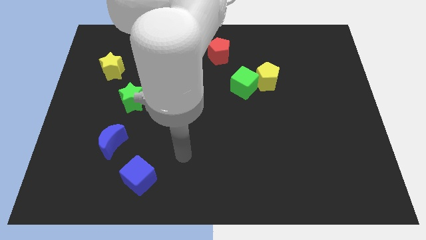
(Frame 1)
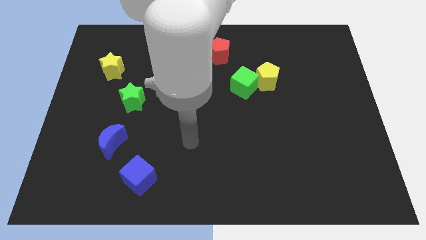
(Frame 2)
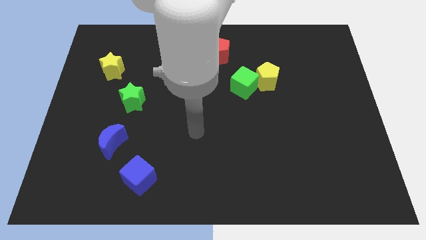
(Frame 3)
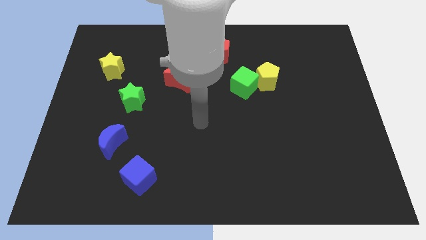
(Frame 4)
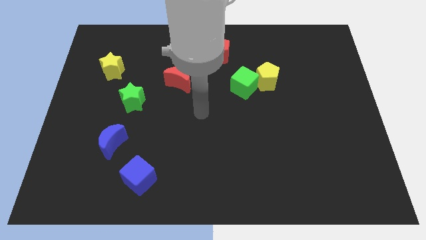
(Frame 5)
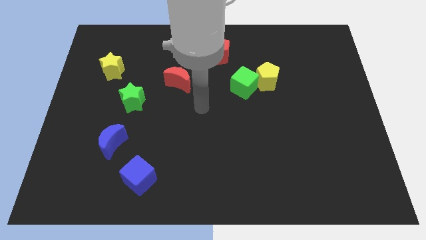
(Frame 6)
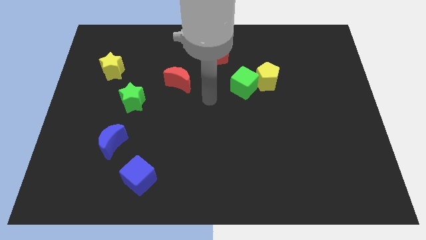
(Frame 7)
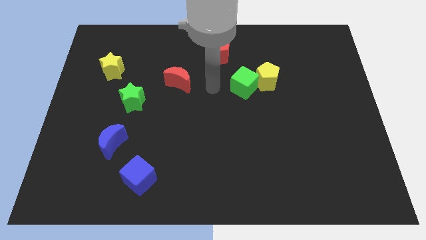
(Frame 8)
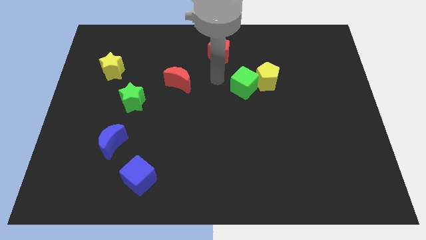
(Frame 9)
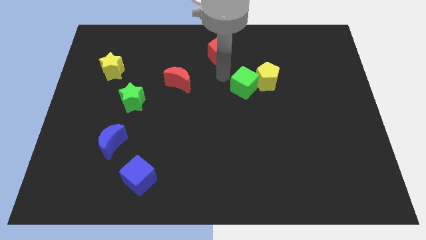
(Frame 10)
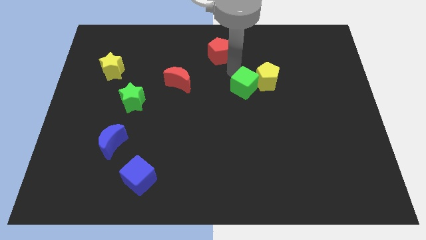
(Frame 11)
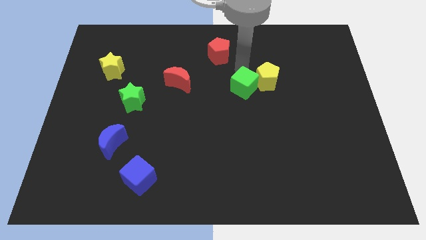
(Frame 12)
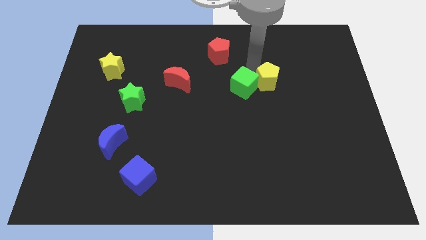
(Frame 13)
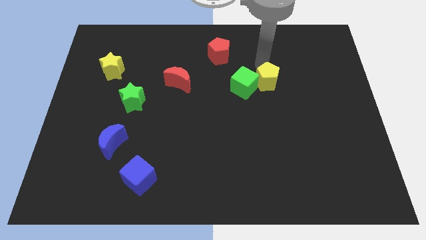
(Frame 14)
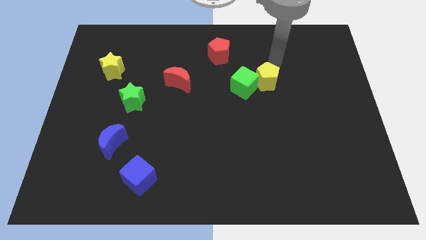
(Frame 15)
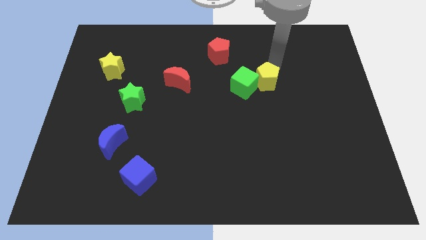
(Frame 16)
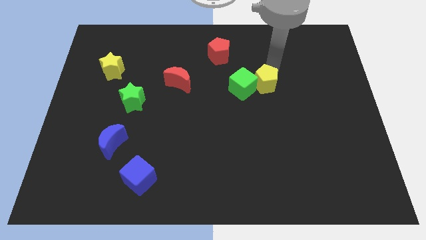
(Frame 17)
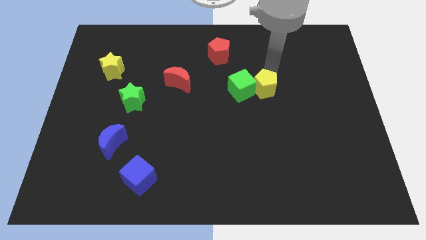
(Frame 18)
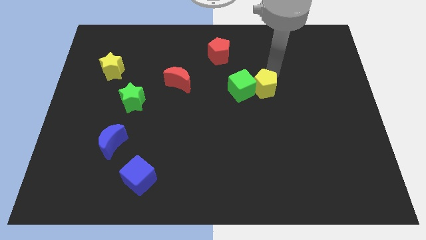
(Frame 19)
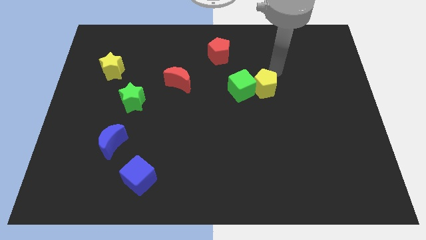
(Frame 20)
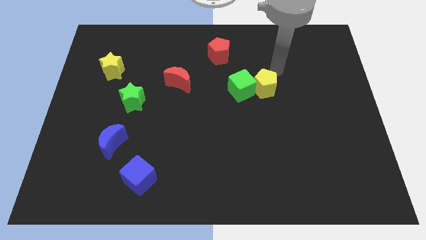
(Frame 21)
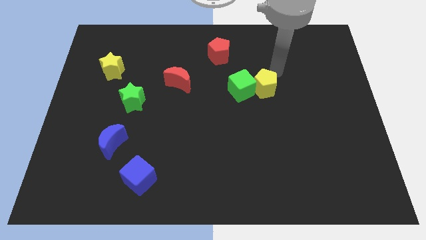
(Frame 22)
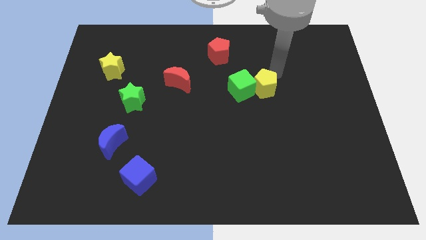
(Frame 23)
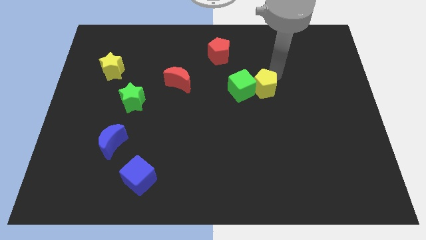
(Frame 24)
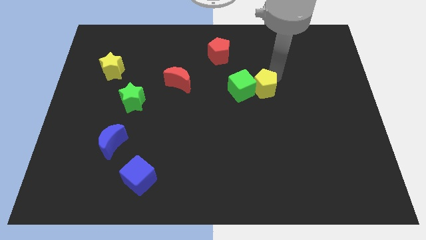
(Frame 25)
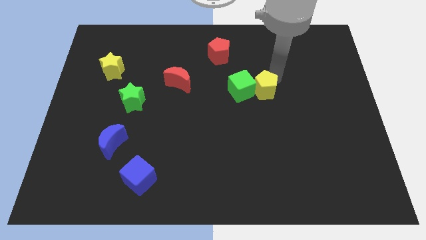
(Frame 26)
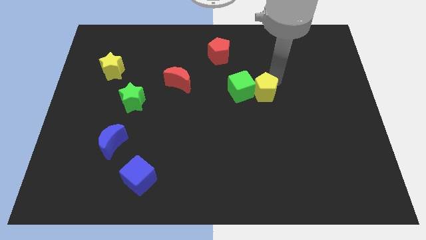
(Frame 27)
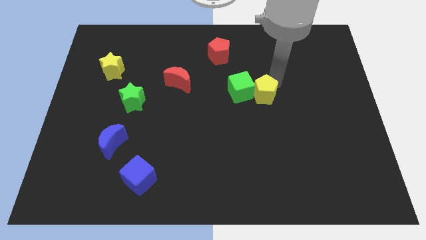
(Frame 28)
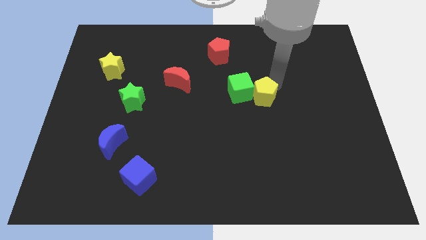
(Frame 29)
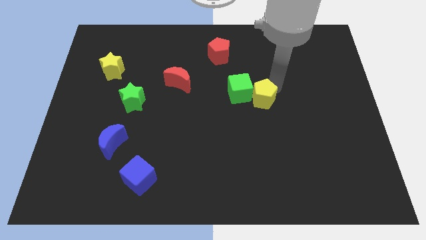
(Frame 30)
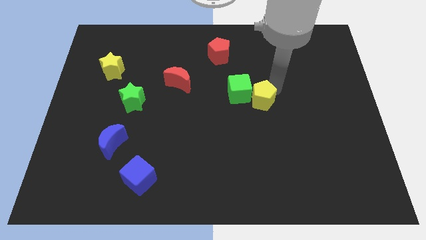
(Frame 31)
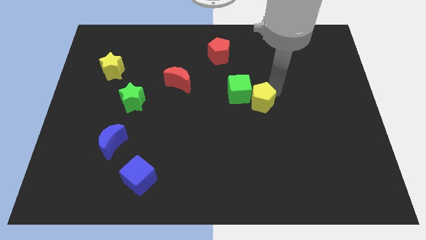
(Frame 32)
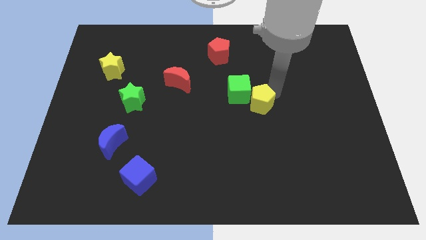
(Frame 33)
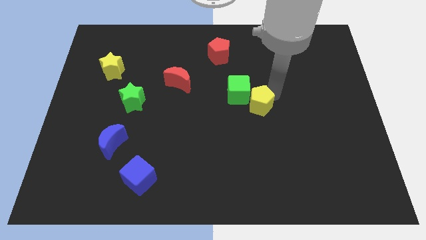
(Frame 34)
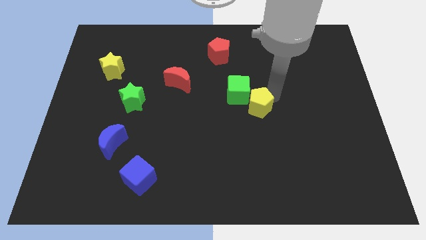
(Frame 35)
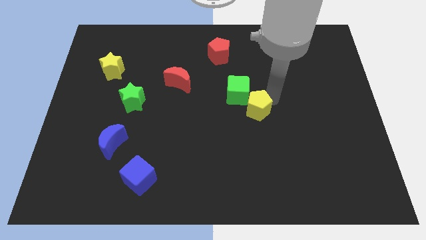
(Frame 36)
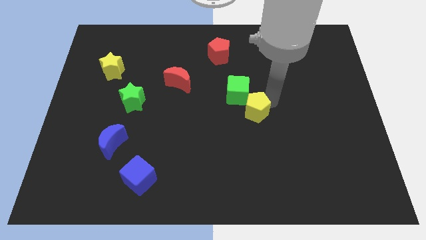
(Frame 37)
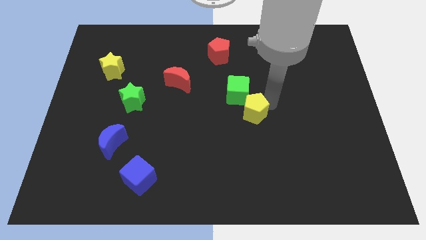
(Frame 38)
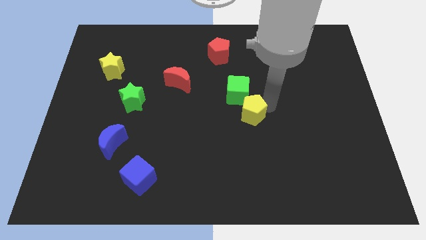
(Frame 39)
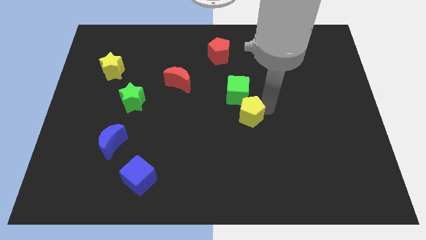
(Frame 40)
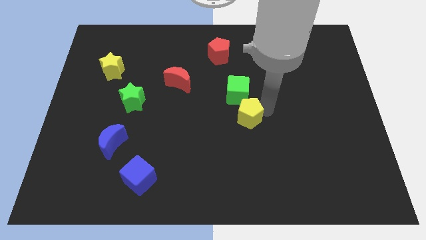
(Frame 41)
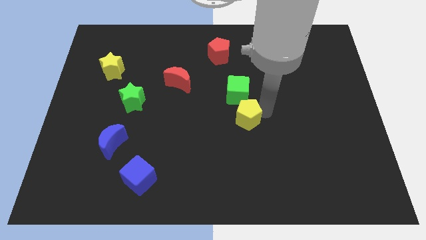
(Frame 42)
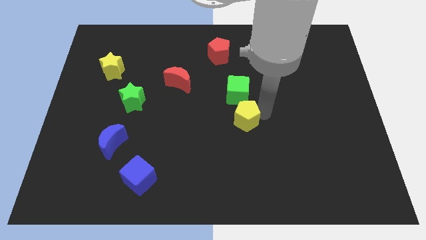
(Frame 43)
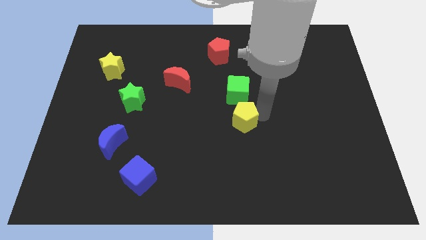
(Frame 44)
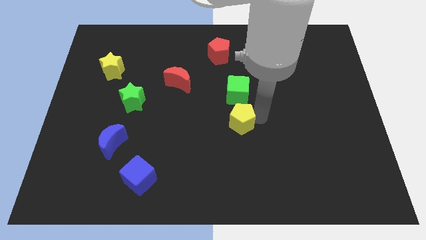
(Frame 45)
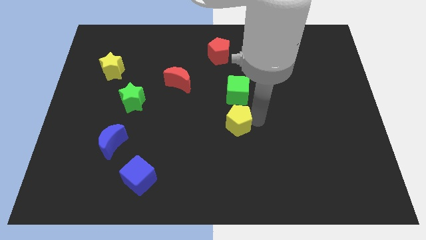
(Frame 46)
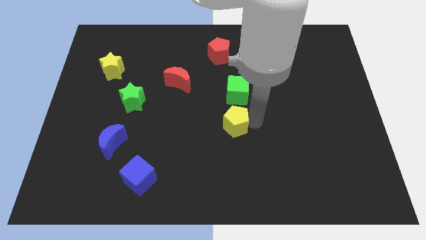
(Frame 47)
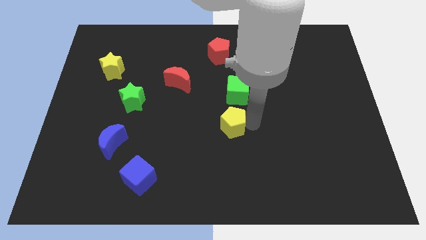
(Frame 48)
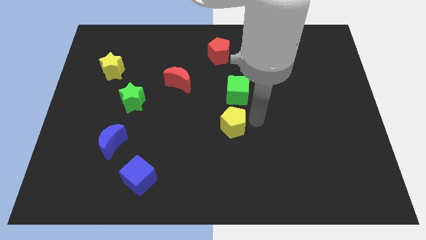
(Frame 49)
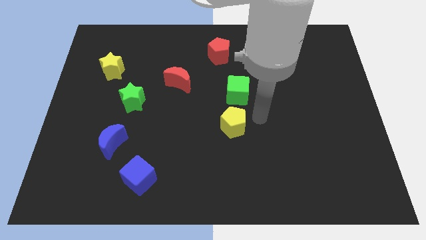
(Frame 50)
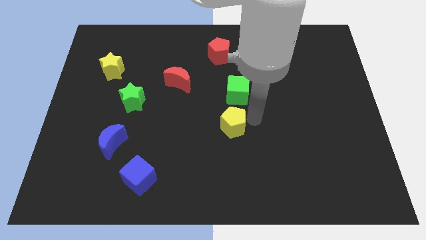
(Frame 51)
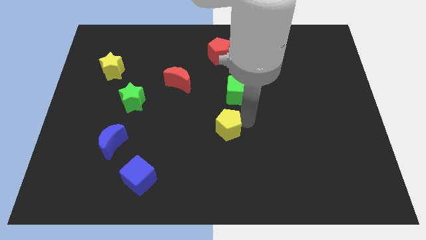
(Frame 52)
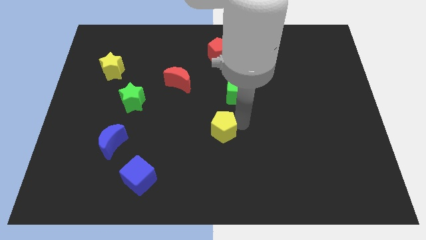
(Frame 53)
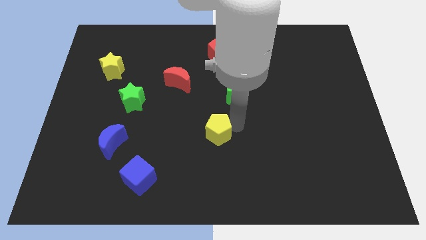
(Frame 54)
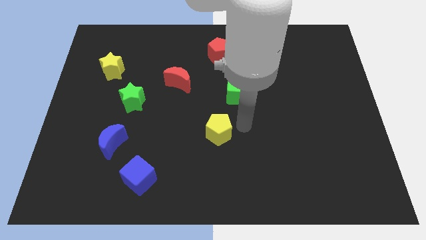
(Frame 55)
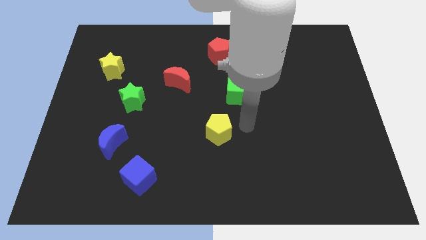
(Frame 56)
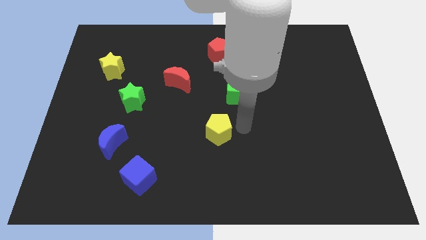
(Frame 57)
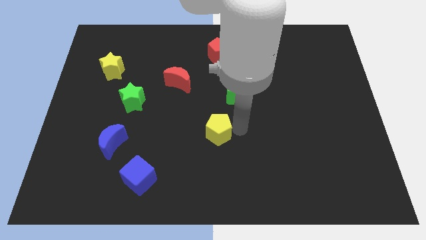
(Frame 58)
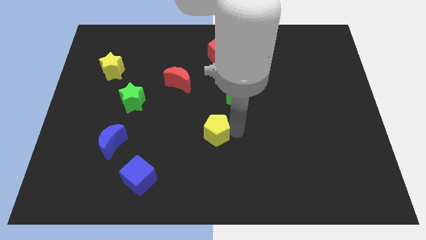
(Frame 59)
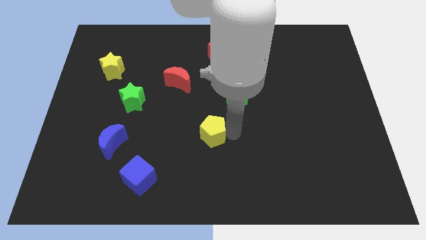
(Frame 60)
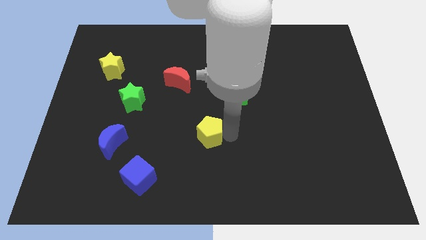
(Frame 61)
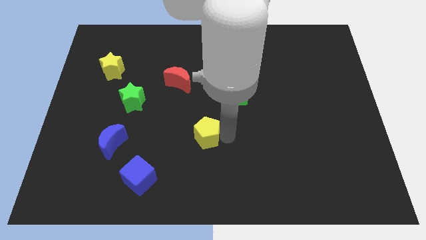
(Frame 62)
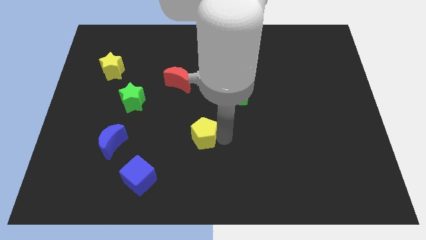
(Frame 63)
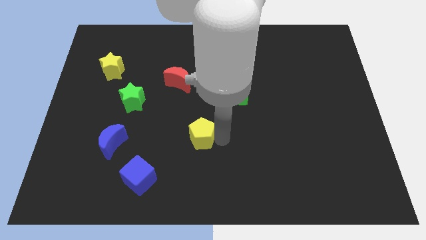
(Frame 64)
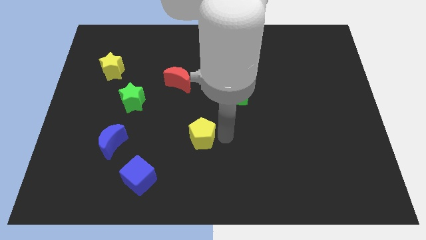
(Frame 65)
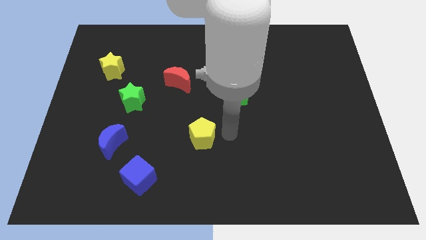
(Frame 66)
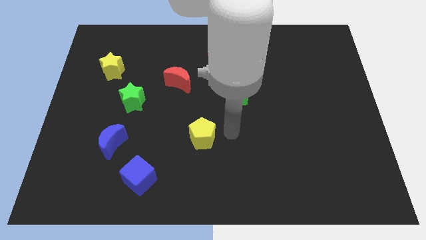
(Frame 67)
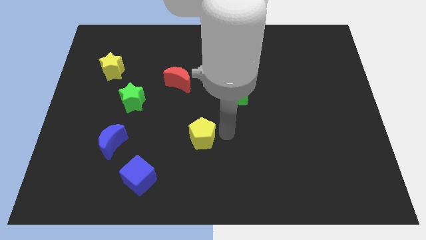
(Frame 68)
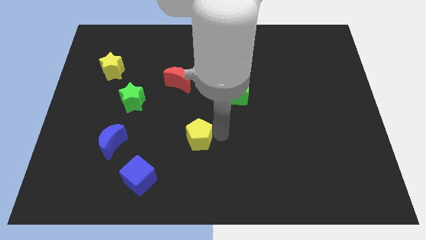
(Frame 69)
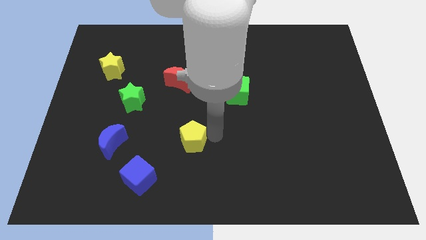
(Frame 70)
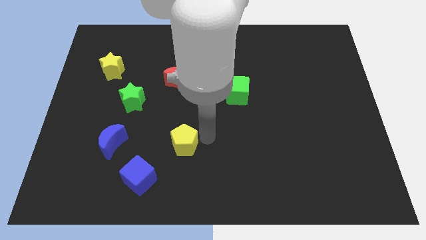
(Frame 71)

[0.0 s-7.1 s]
push the yellow pentagon right of the blue moon

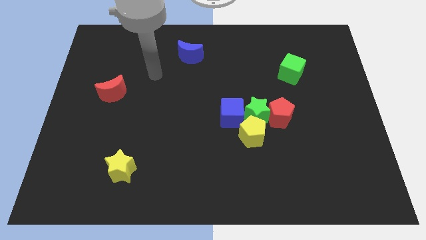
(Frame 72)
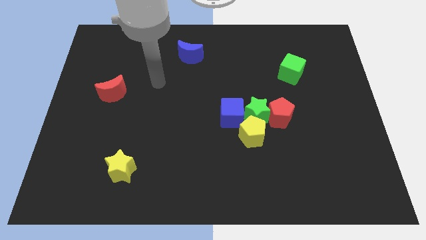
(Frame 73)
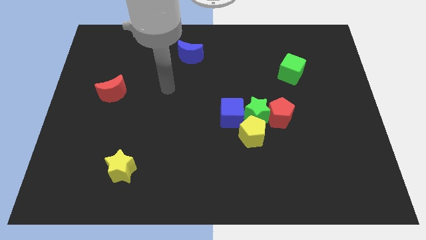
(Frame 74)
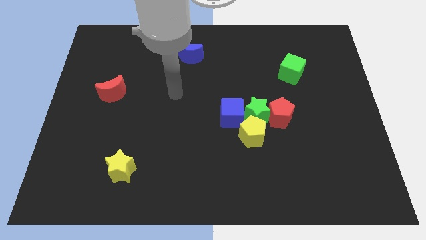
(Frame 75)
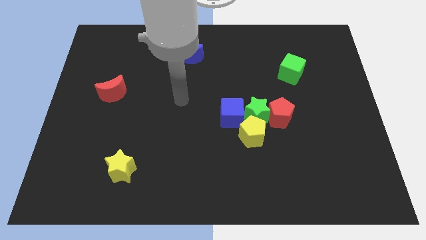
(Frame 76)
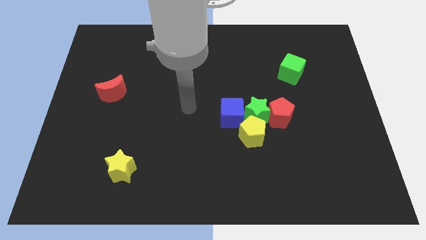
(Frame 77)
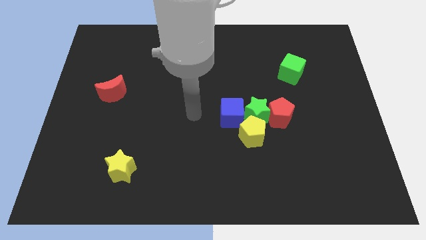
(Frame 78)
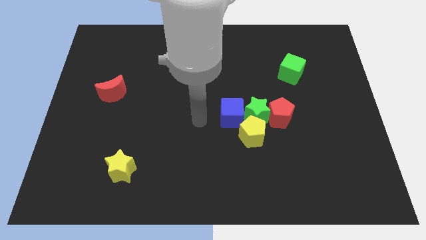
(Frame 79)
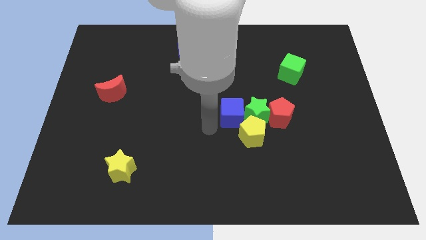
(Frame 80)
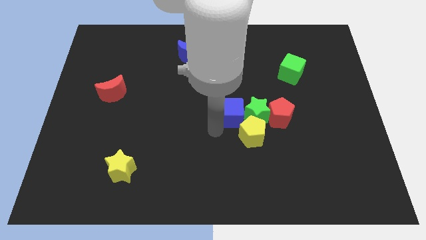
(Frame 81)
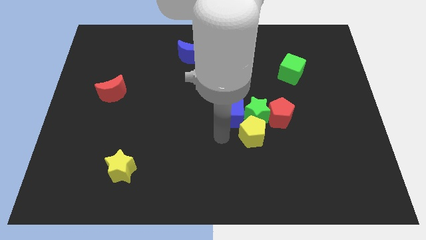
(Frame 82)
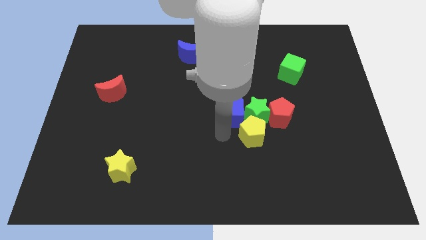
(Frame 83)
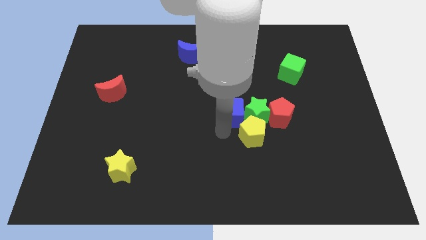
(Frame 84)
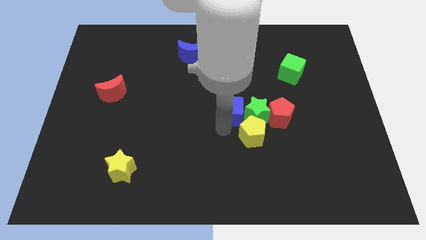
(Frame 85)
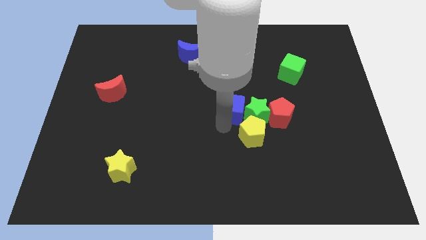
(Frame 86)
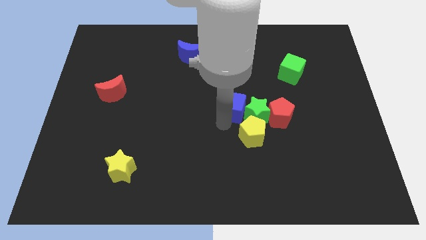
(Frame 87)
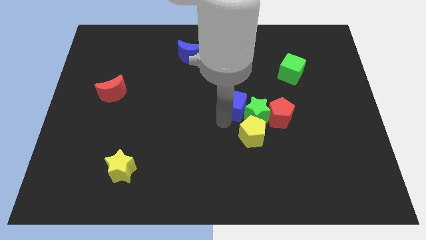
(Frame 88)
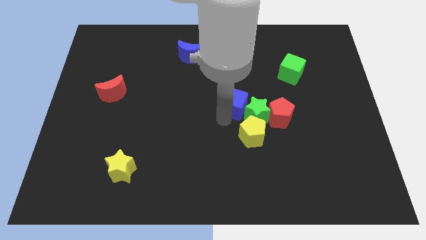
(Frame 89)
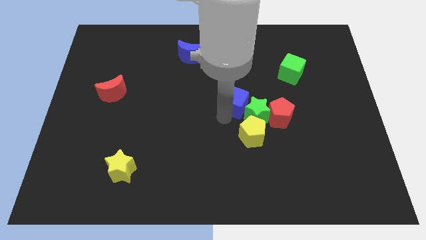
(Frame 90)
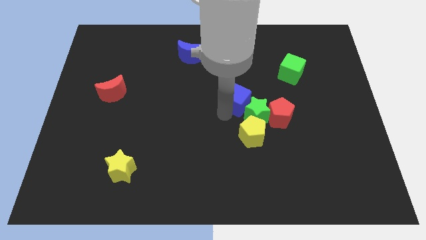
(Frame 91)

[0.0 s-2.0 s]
push the blue cube to the top side of the green star
